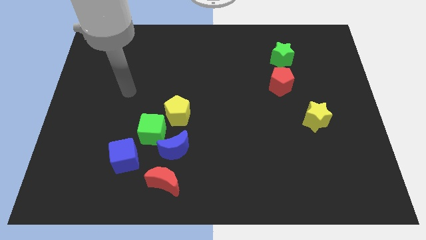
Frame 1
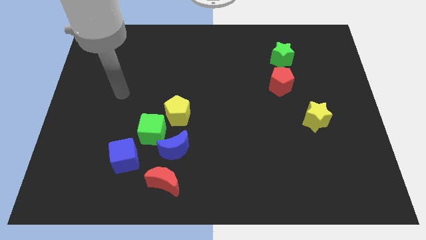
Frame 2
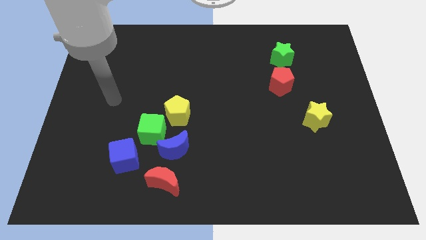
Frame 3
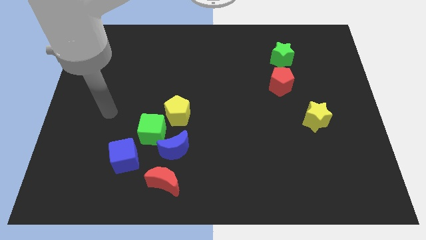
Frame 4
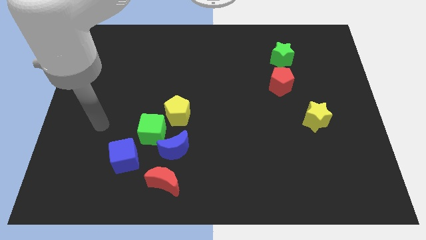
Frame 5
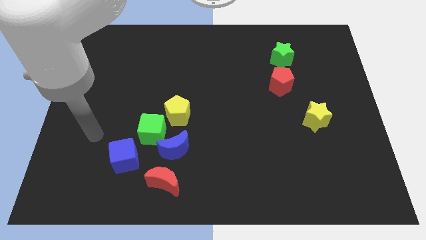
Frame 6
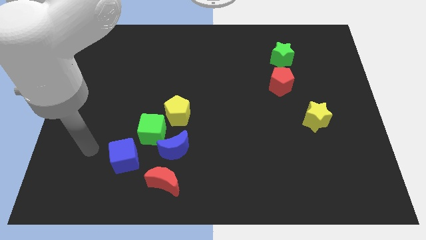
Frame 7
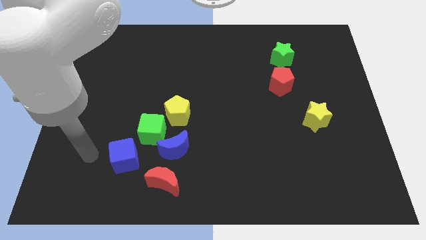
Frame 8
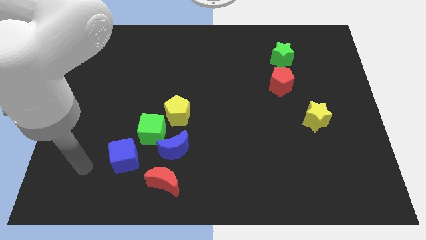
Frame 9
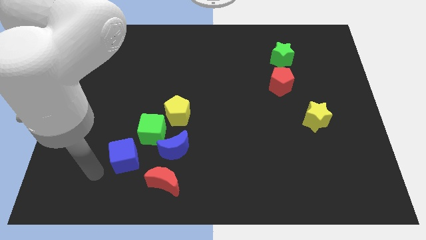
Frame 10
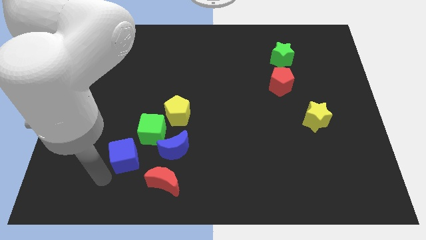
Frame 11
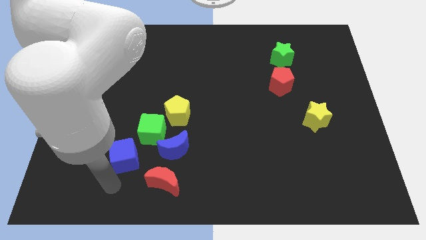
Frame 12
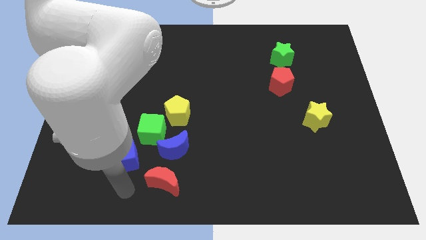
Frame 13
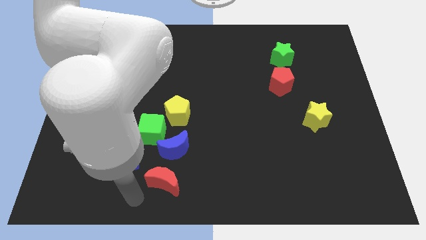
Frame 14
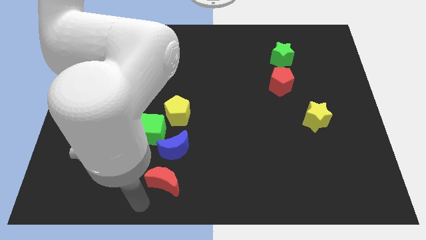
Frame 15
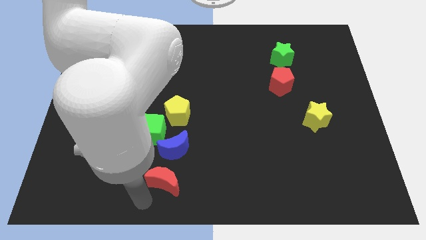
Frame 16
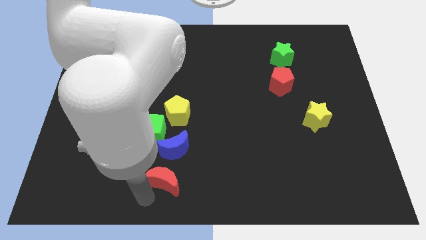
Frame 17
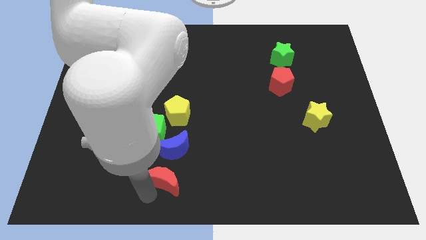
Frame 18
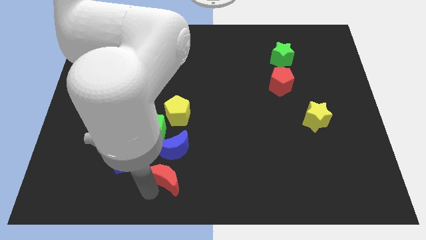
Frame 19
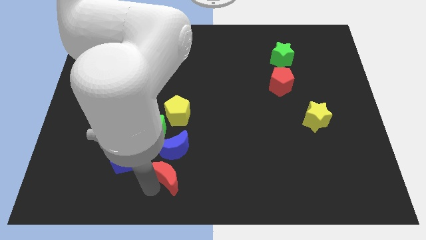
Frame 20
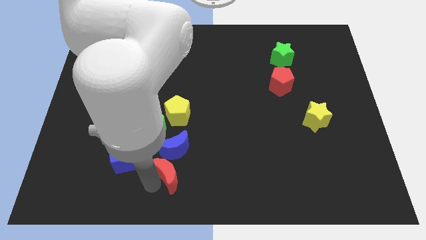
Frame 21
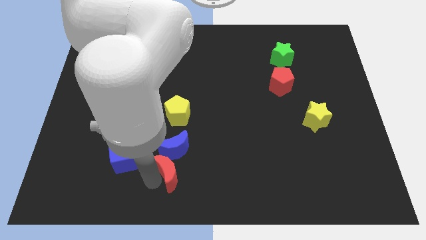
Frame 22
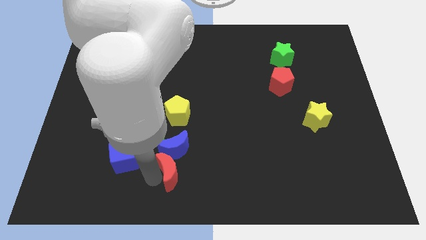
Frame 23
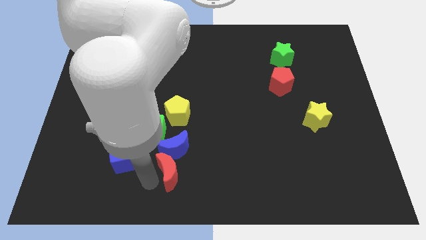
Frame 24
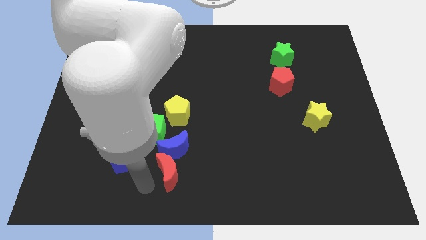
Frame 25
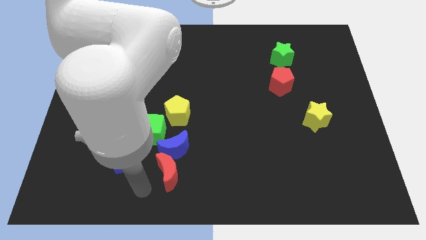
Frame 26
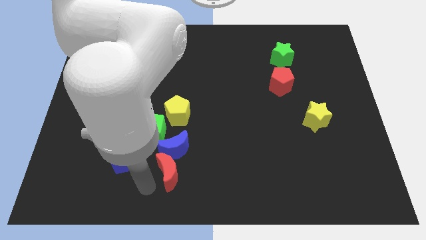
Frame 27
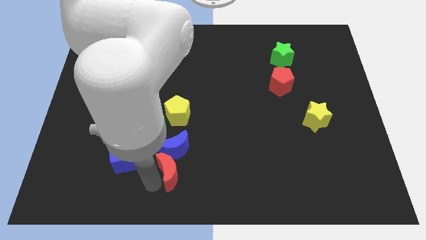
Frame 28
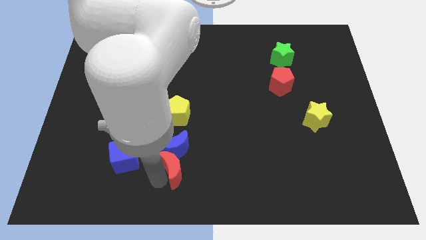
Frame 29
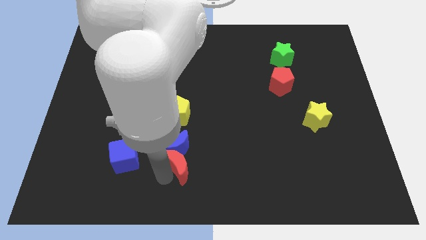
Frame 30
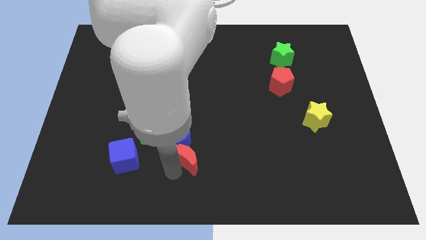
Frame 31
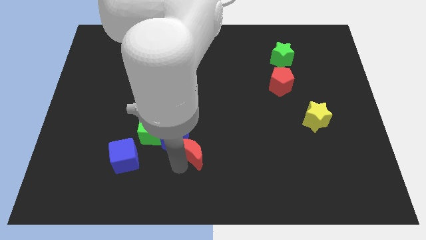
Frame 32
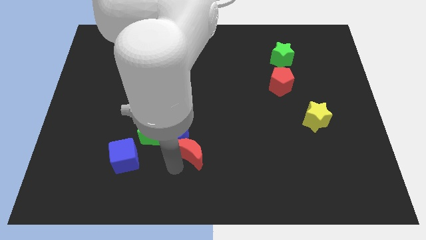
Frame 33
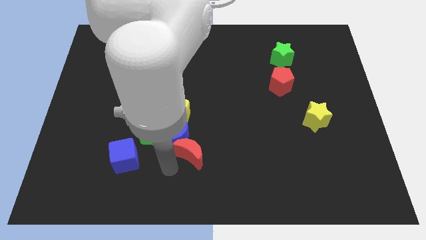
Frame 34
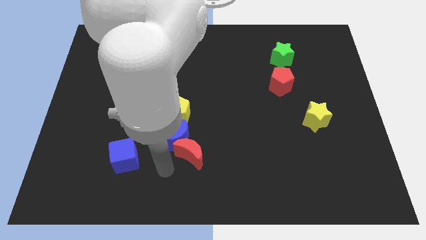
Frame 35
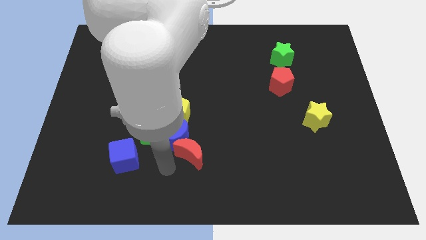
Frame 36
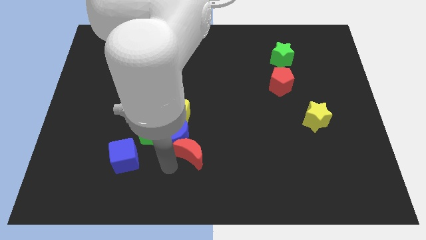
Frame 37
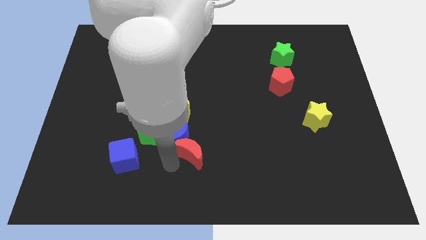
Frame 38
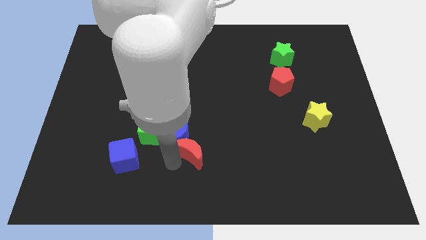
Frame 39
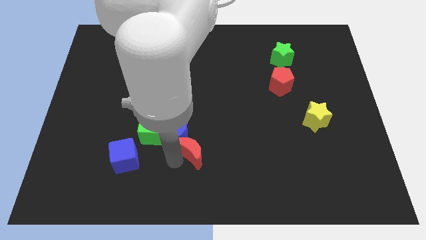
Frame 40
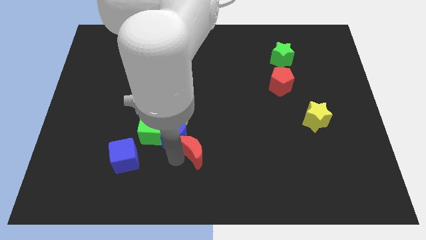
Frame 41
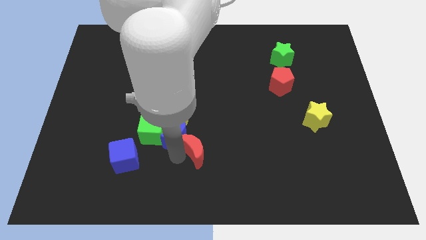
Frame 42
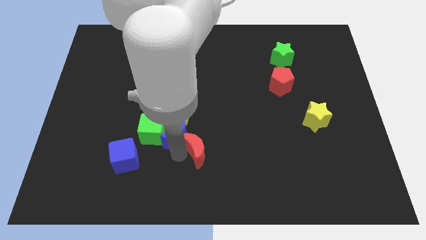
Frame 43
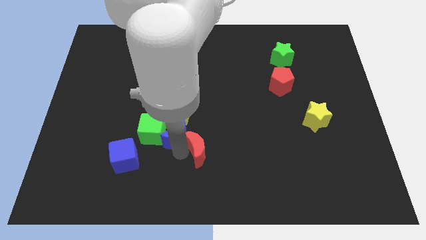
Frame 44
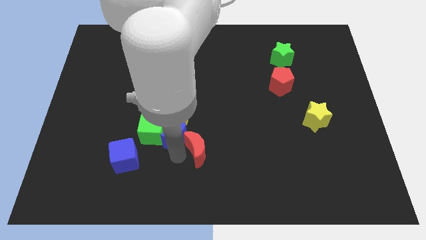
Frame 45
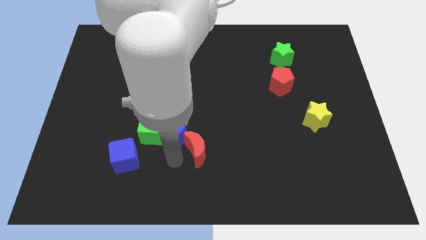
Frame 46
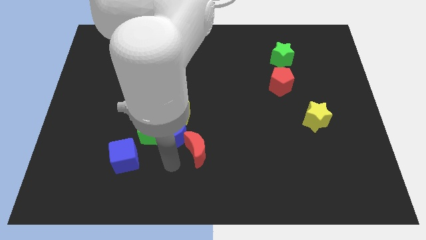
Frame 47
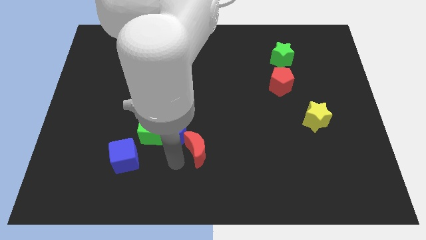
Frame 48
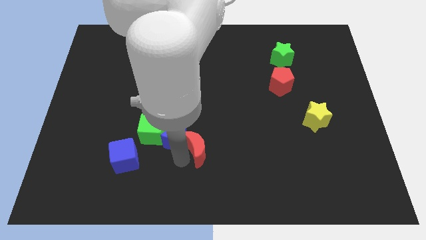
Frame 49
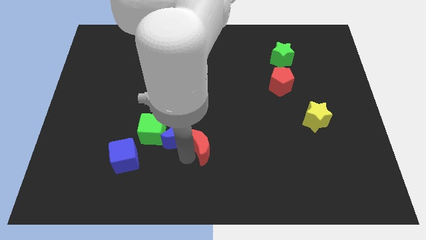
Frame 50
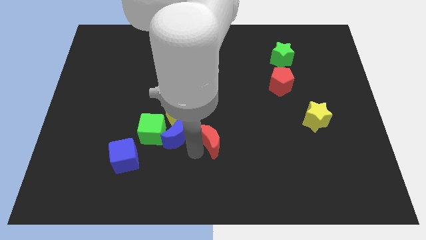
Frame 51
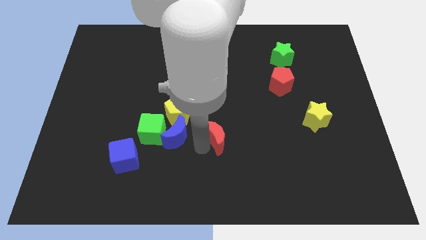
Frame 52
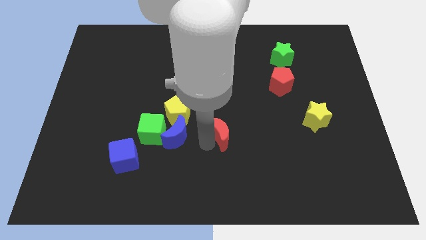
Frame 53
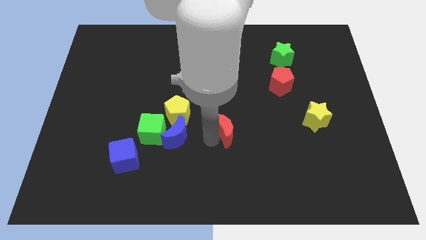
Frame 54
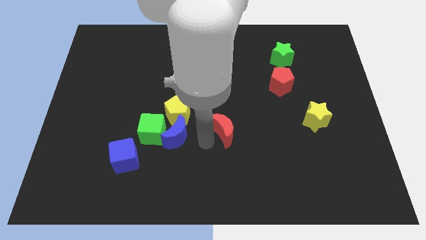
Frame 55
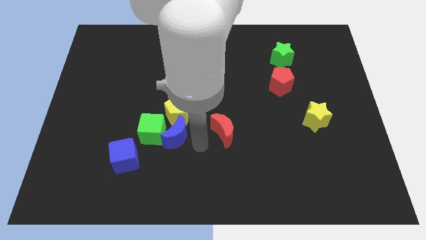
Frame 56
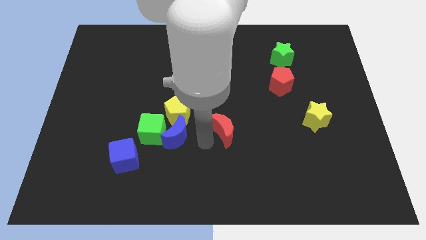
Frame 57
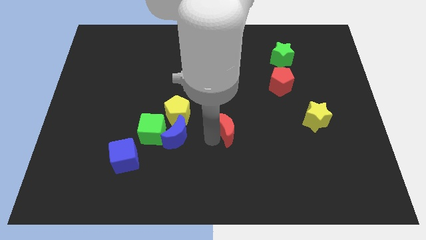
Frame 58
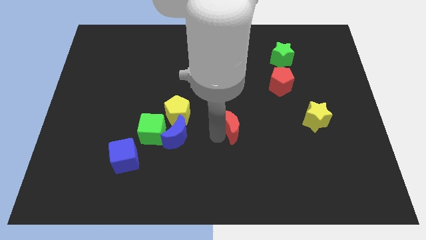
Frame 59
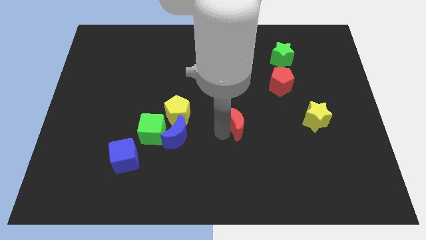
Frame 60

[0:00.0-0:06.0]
push the red moon up and right

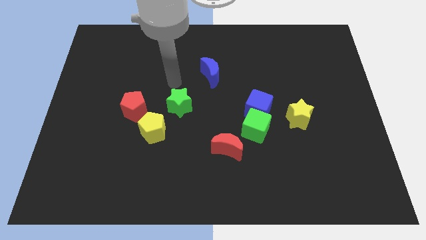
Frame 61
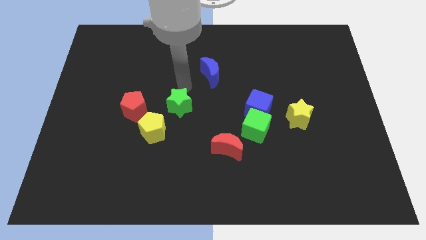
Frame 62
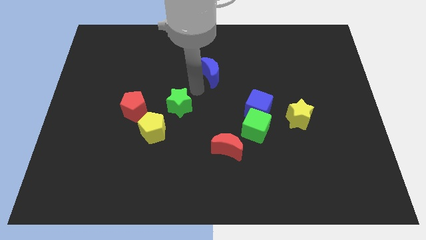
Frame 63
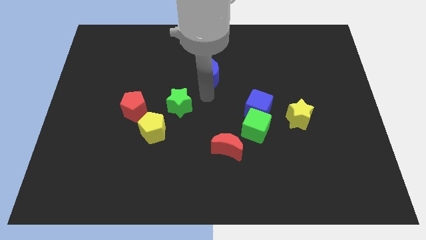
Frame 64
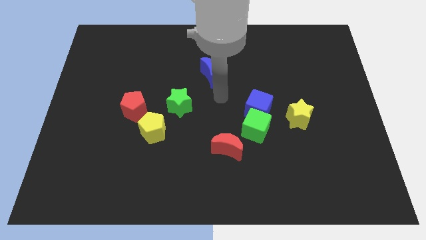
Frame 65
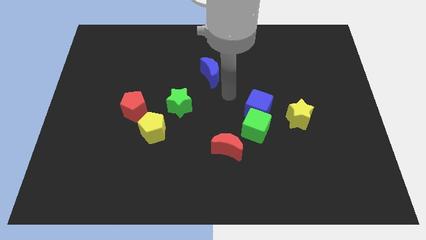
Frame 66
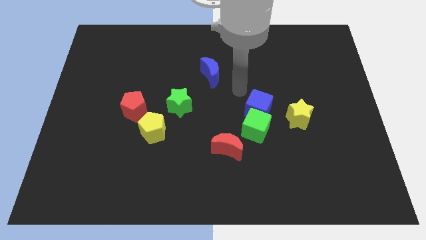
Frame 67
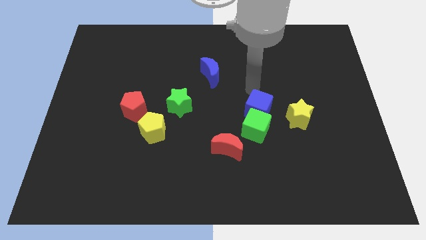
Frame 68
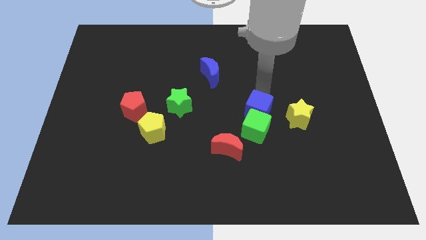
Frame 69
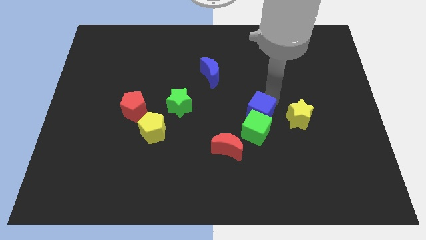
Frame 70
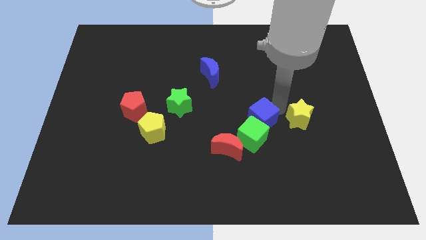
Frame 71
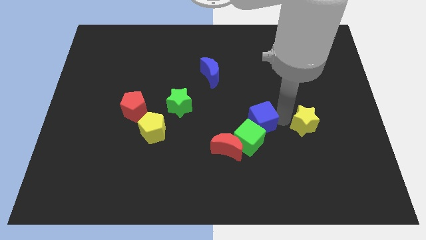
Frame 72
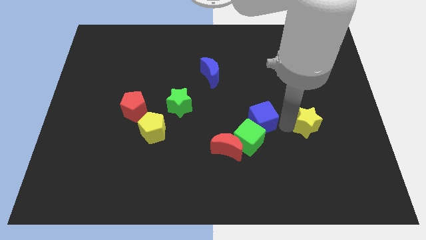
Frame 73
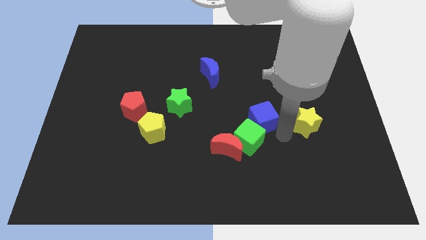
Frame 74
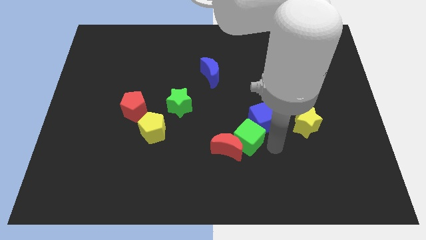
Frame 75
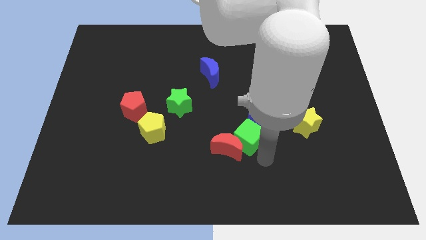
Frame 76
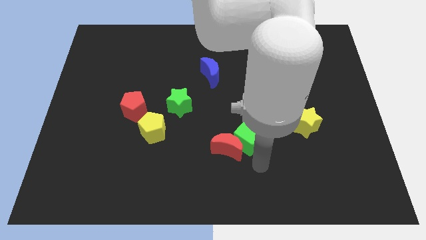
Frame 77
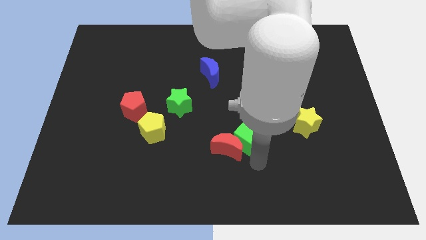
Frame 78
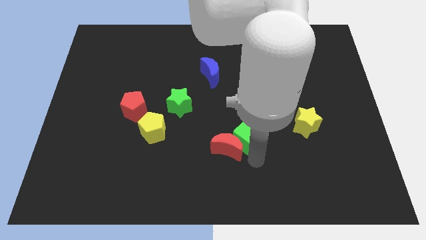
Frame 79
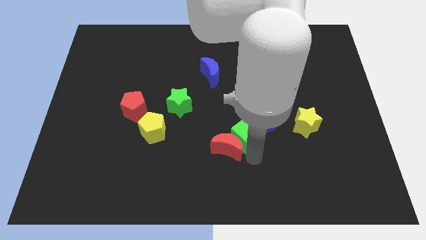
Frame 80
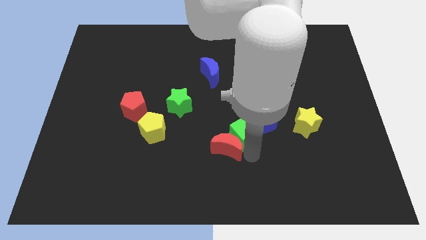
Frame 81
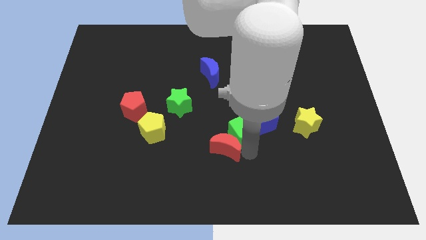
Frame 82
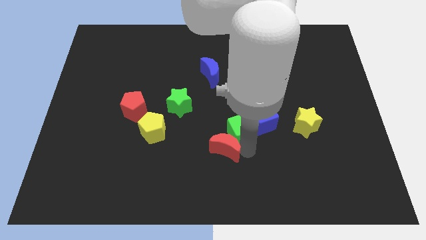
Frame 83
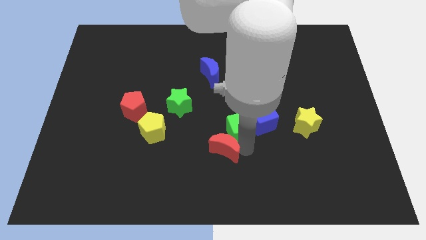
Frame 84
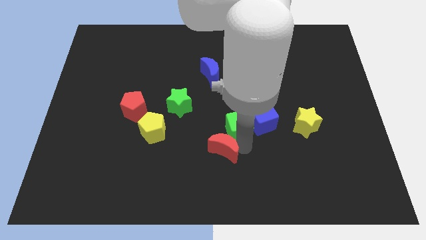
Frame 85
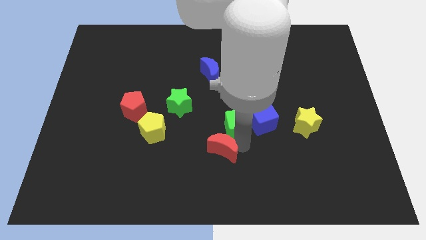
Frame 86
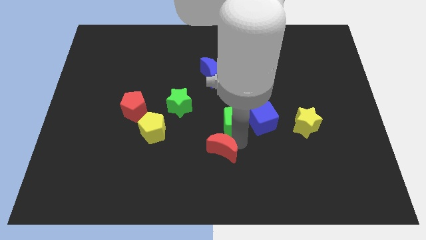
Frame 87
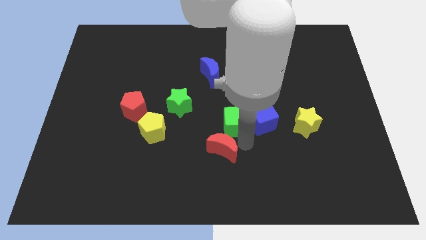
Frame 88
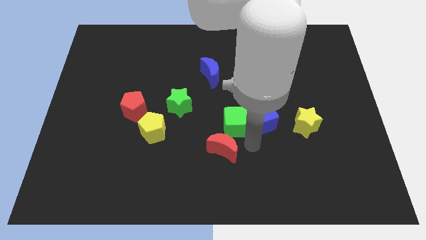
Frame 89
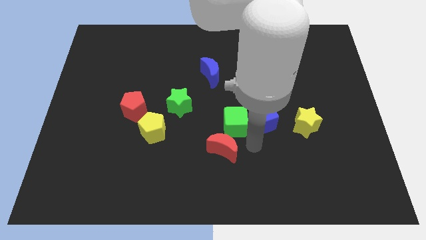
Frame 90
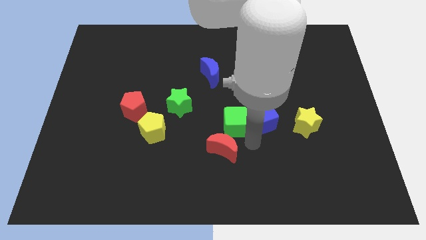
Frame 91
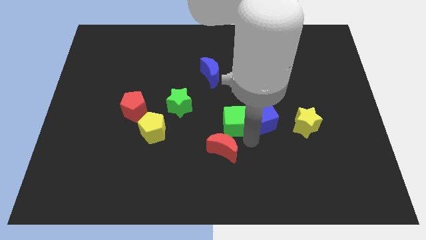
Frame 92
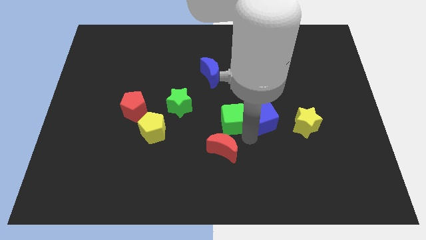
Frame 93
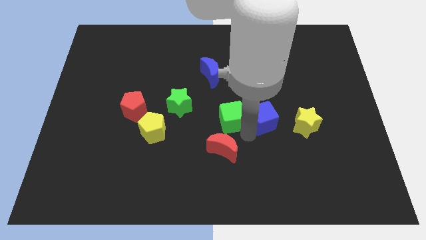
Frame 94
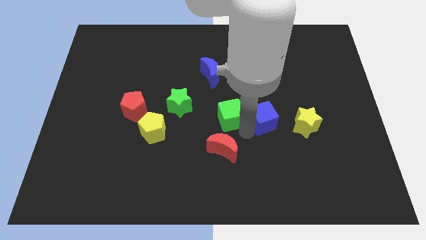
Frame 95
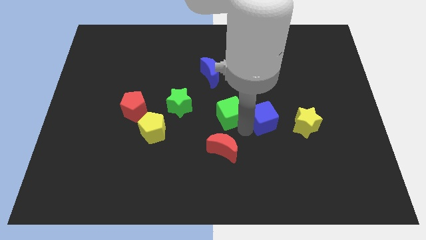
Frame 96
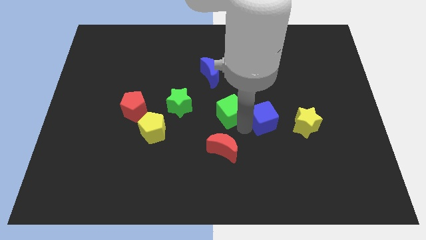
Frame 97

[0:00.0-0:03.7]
slide the green cube up and to the left a bit
